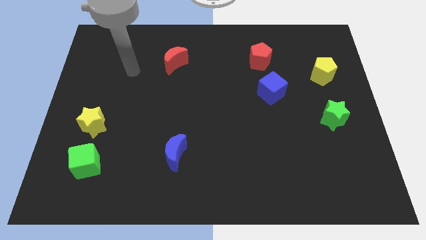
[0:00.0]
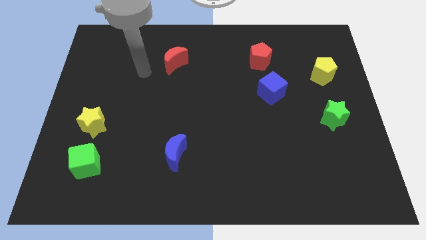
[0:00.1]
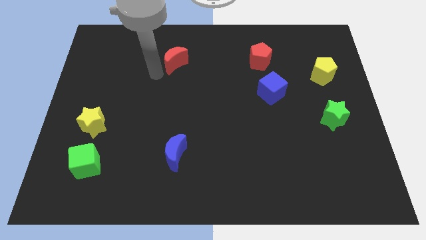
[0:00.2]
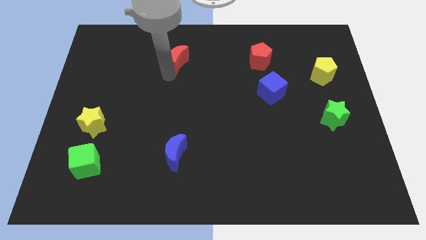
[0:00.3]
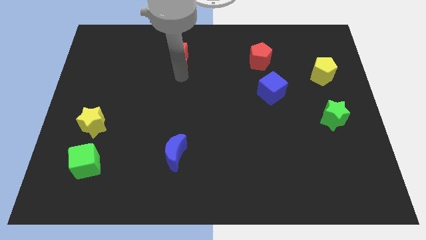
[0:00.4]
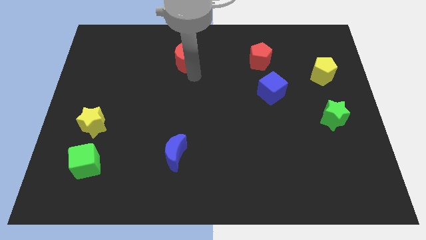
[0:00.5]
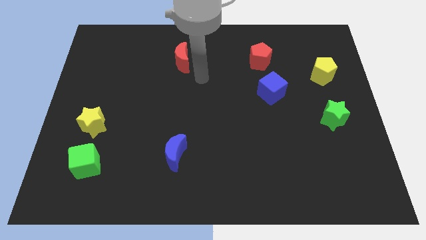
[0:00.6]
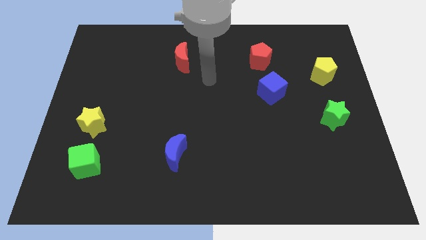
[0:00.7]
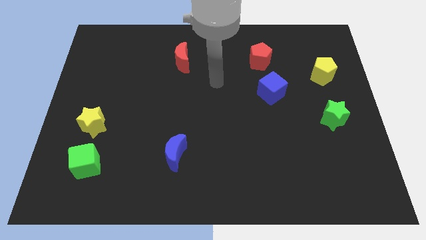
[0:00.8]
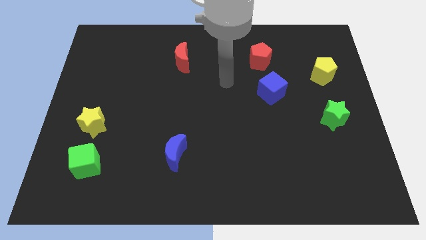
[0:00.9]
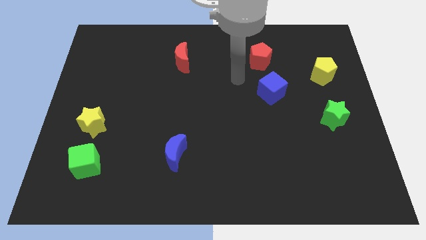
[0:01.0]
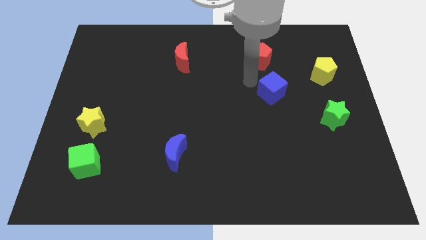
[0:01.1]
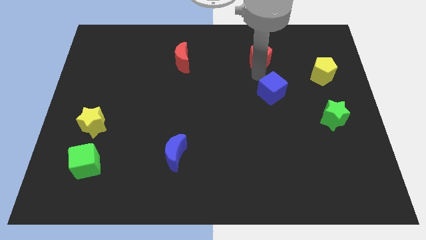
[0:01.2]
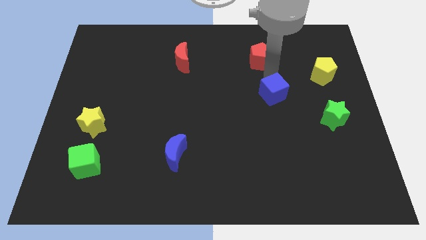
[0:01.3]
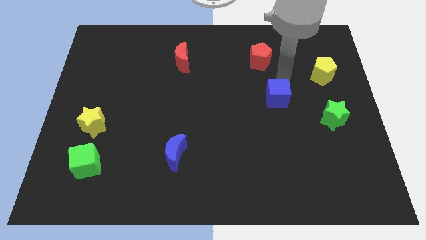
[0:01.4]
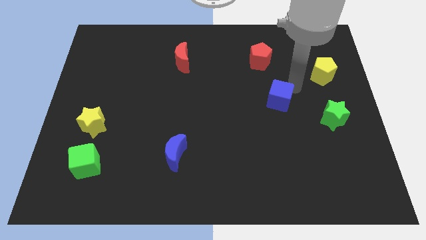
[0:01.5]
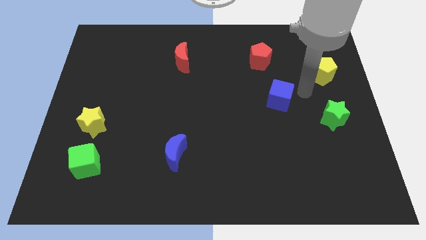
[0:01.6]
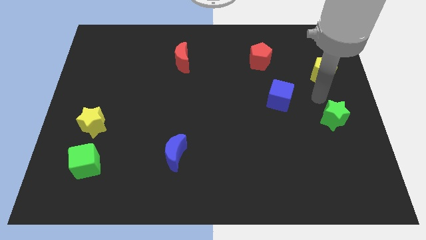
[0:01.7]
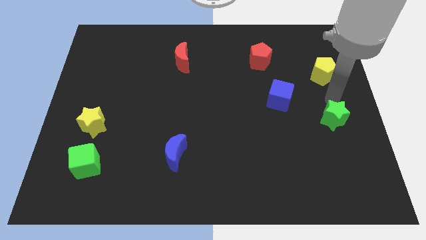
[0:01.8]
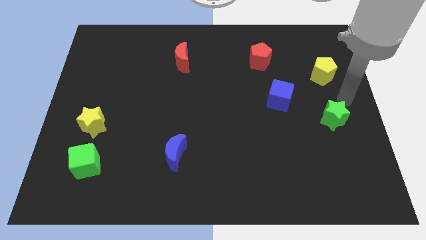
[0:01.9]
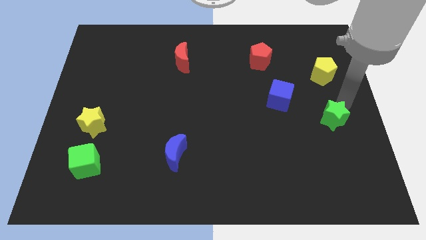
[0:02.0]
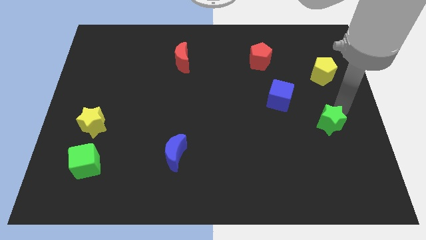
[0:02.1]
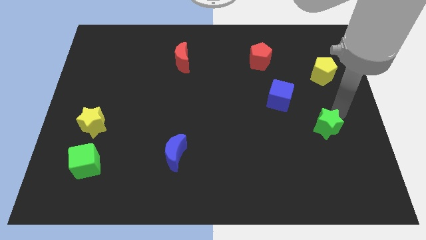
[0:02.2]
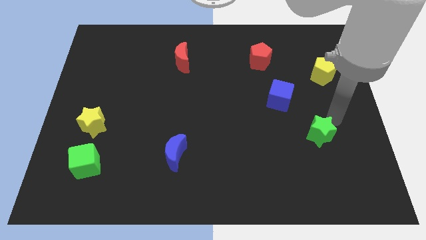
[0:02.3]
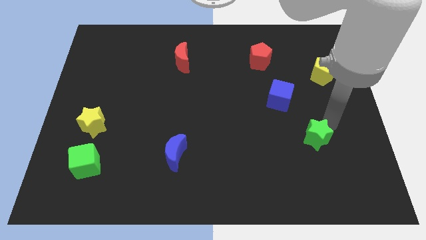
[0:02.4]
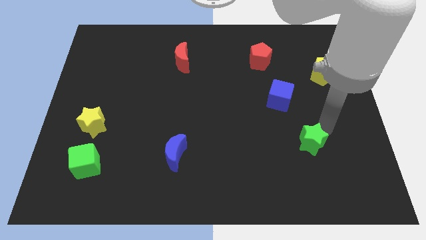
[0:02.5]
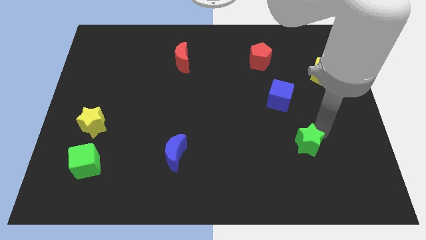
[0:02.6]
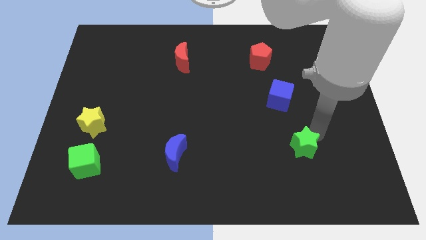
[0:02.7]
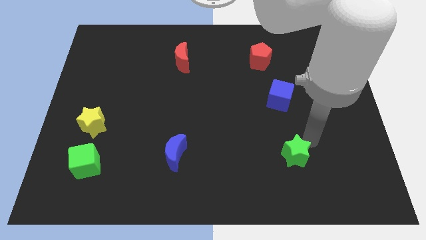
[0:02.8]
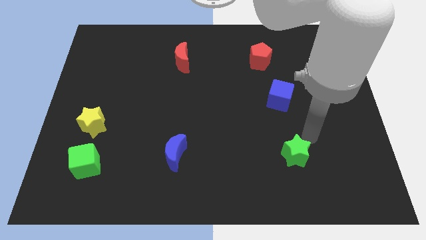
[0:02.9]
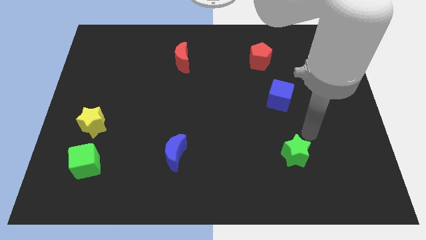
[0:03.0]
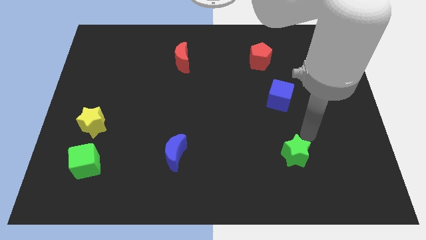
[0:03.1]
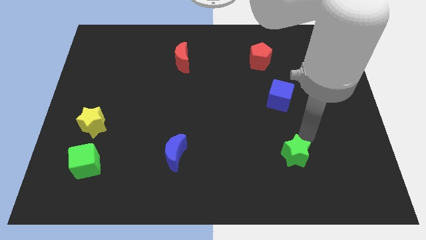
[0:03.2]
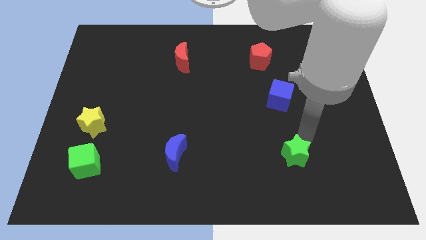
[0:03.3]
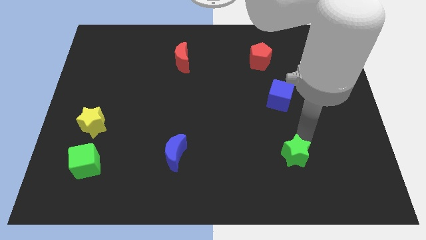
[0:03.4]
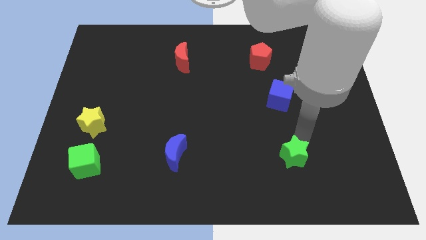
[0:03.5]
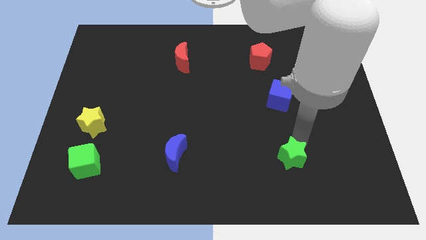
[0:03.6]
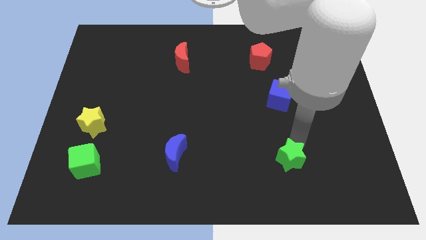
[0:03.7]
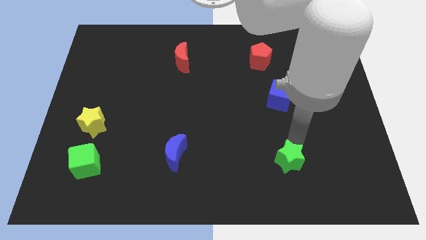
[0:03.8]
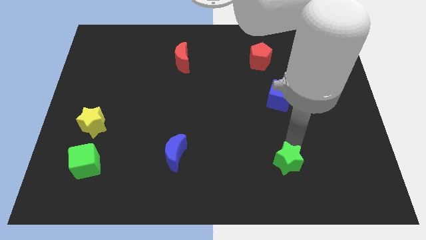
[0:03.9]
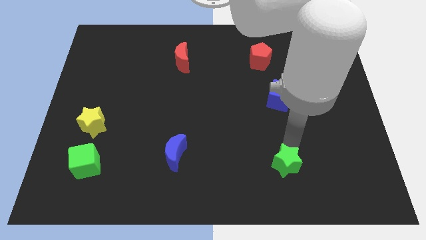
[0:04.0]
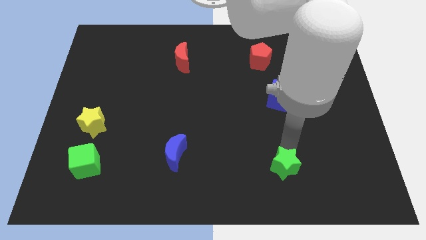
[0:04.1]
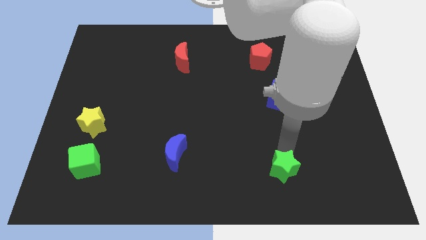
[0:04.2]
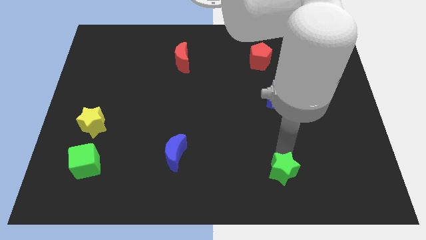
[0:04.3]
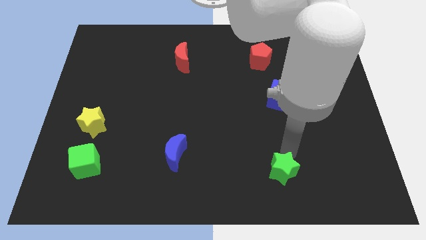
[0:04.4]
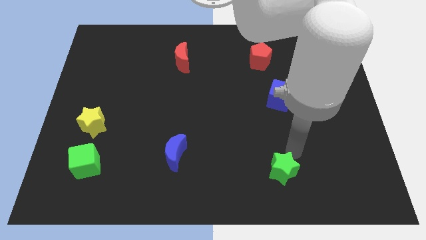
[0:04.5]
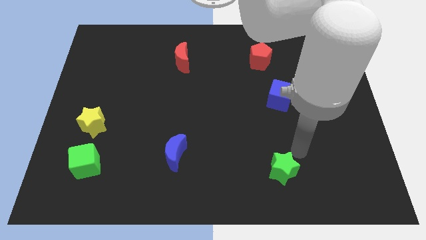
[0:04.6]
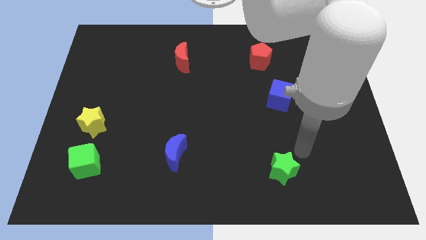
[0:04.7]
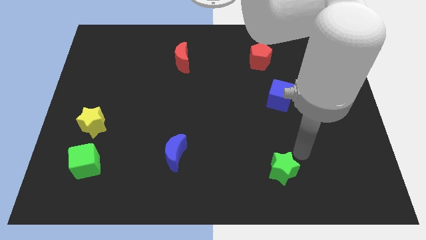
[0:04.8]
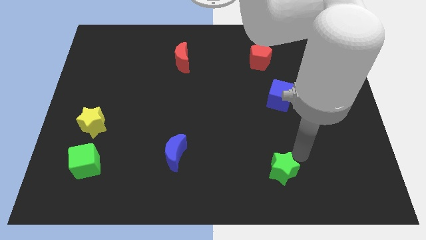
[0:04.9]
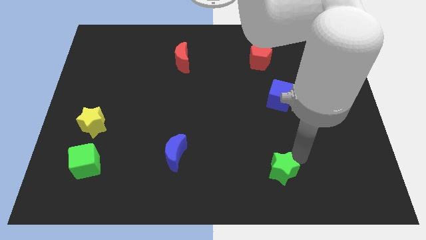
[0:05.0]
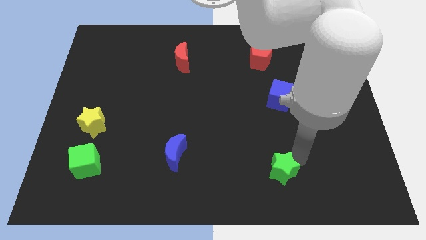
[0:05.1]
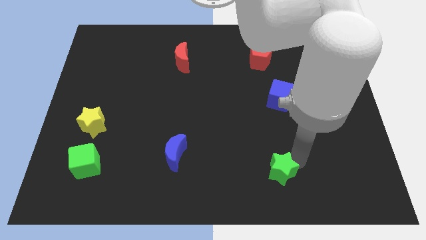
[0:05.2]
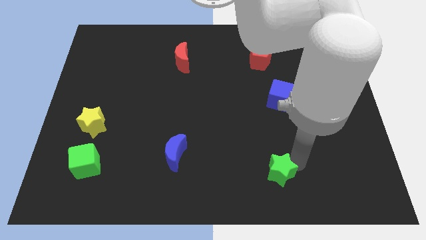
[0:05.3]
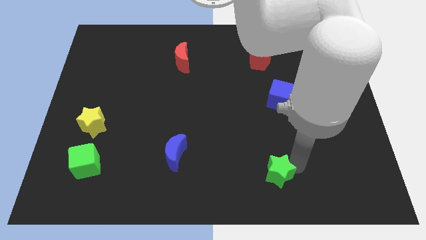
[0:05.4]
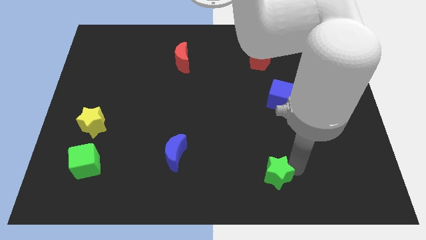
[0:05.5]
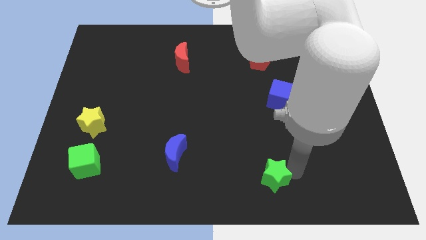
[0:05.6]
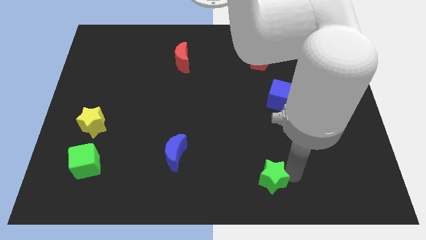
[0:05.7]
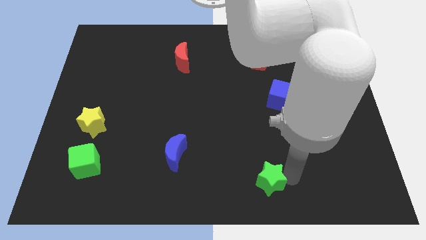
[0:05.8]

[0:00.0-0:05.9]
put the green star to the bottom side

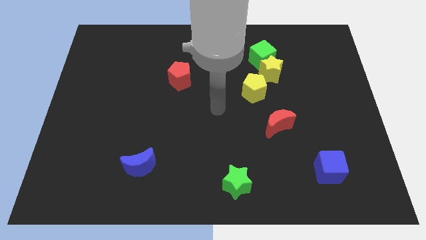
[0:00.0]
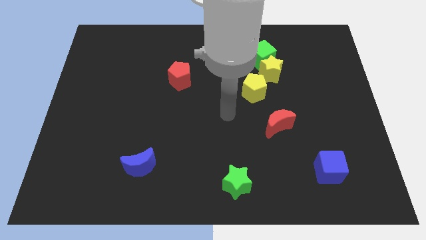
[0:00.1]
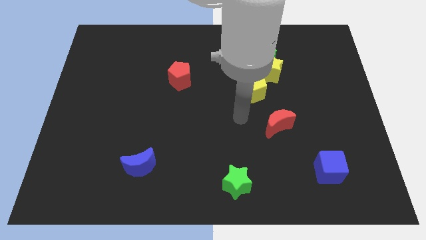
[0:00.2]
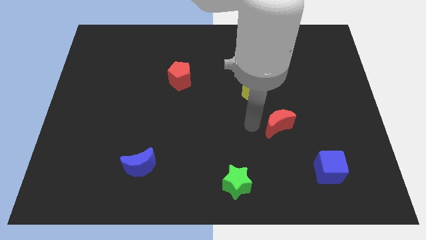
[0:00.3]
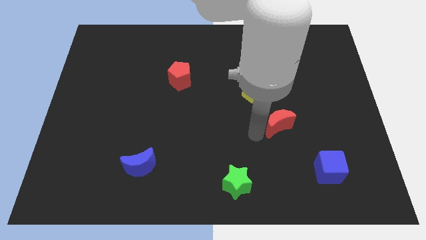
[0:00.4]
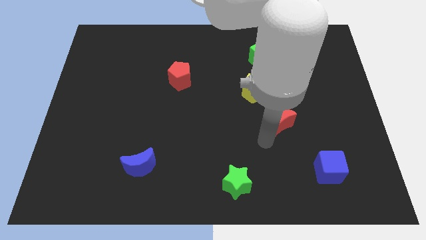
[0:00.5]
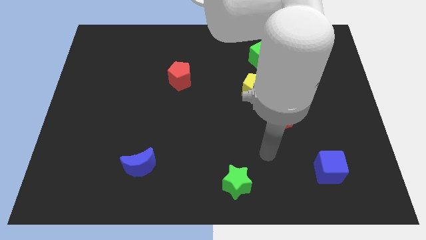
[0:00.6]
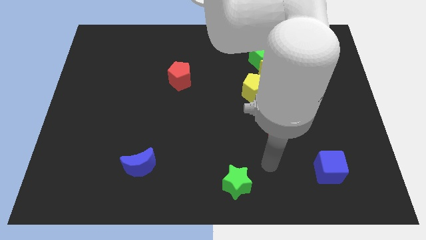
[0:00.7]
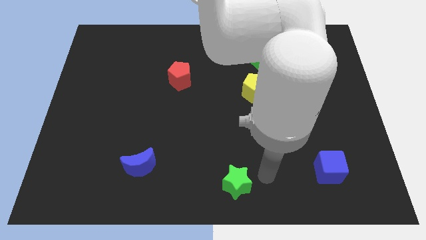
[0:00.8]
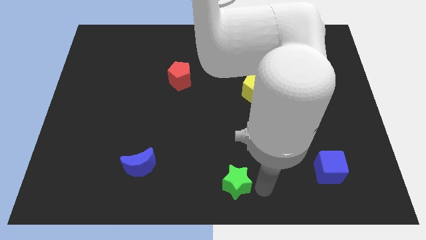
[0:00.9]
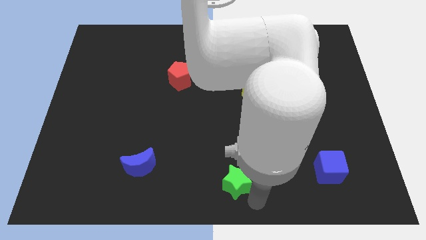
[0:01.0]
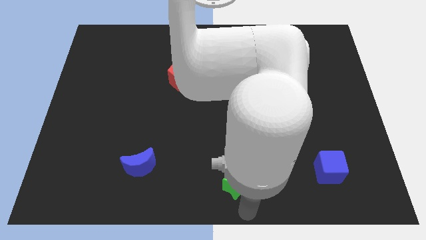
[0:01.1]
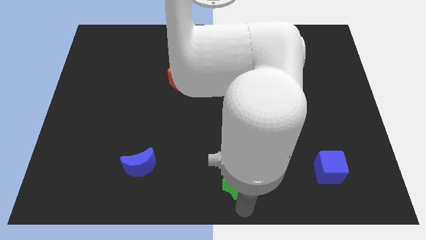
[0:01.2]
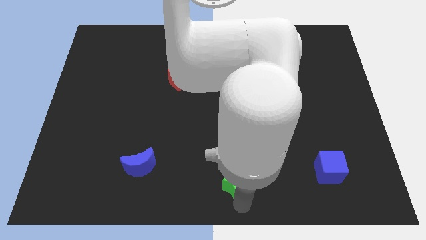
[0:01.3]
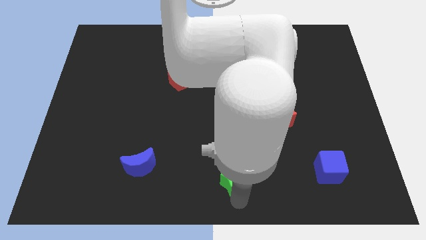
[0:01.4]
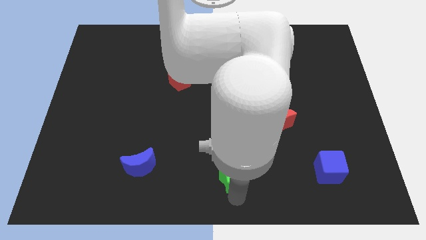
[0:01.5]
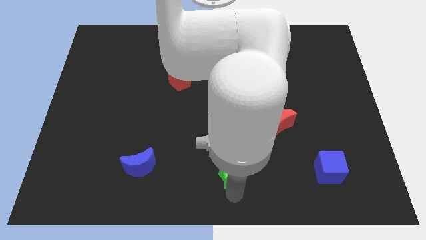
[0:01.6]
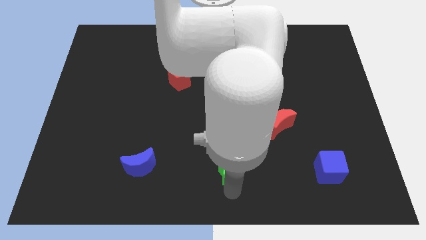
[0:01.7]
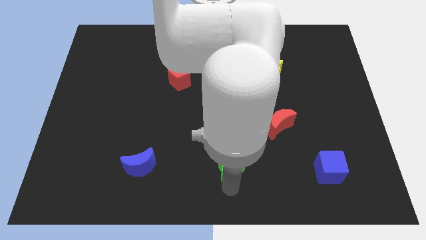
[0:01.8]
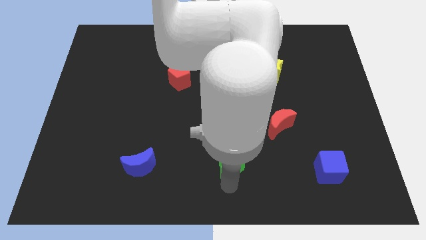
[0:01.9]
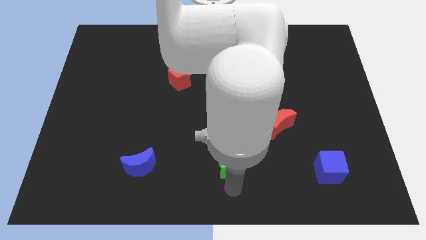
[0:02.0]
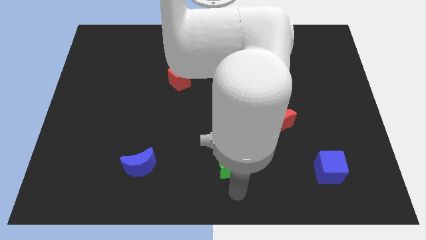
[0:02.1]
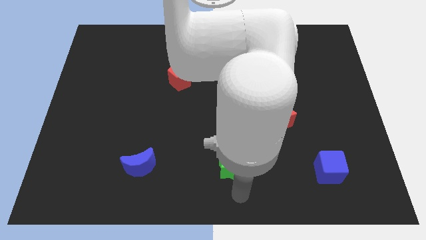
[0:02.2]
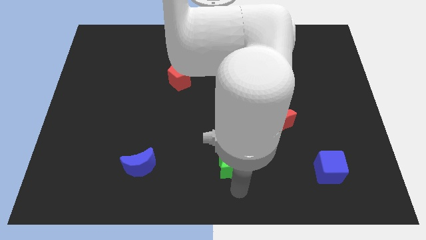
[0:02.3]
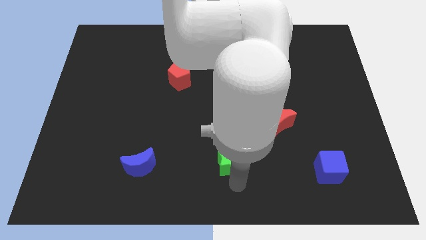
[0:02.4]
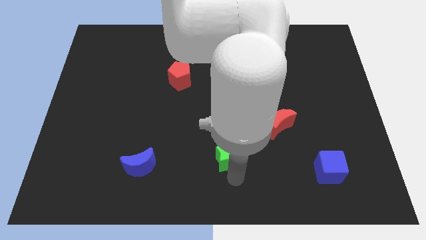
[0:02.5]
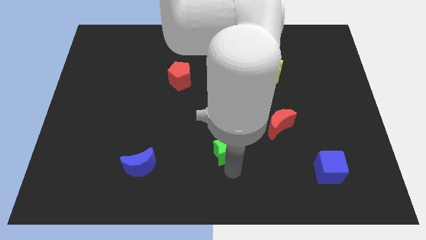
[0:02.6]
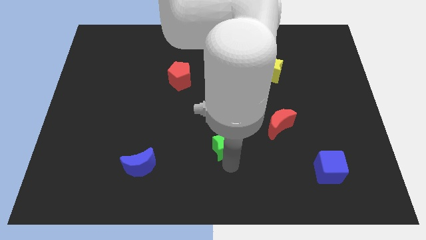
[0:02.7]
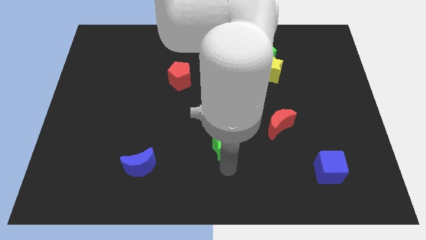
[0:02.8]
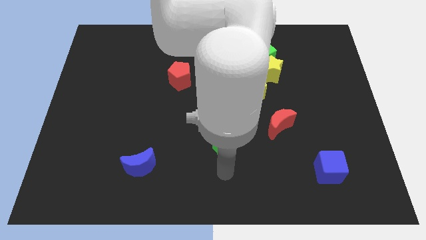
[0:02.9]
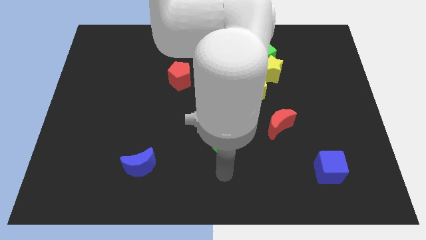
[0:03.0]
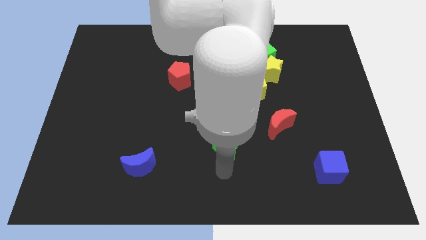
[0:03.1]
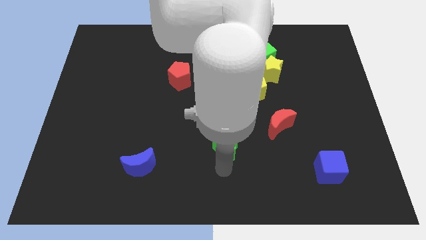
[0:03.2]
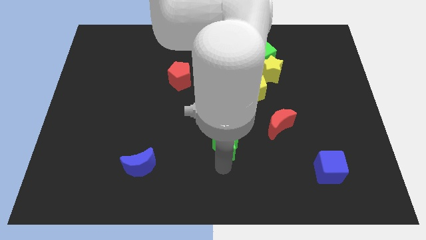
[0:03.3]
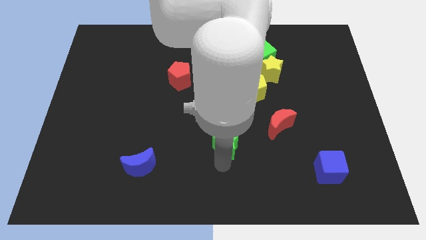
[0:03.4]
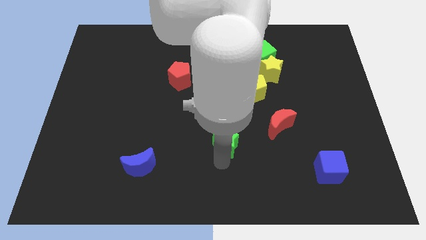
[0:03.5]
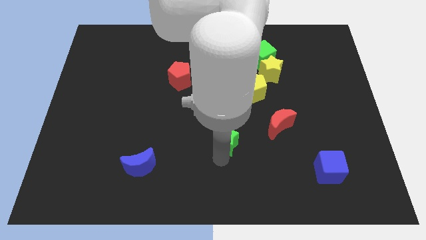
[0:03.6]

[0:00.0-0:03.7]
move the green star to the middle of the board
